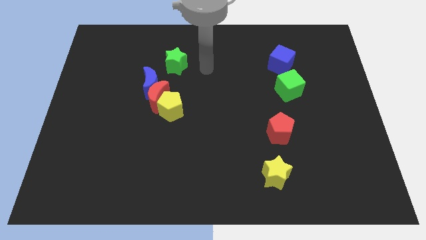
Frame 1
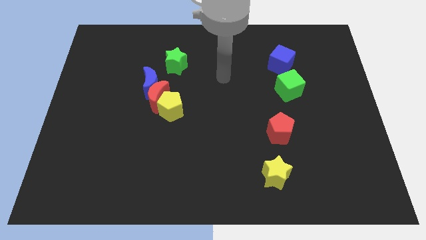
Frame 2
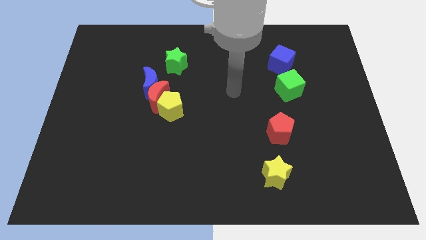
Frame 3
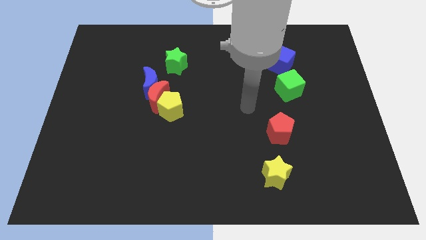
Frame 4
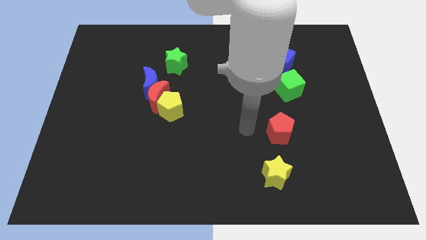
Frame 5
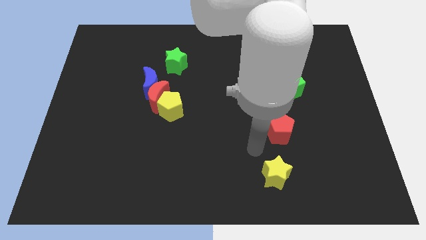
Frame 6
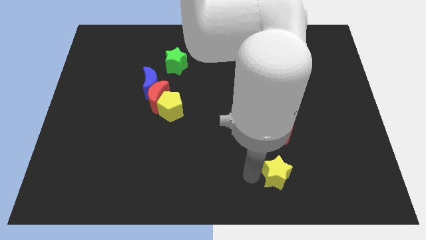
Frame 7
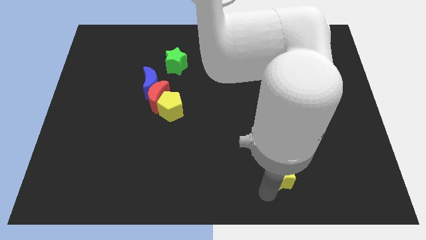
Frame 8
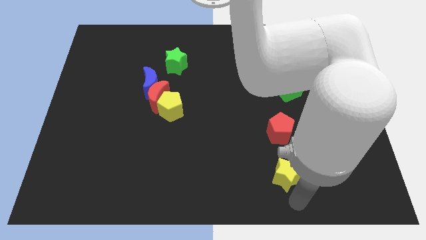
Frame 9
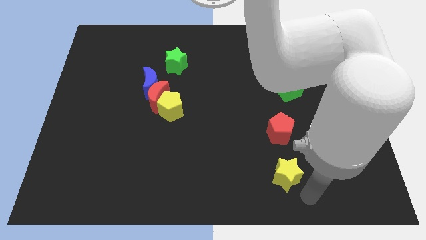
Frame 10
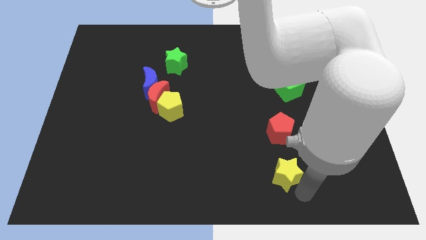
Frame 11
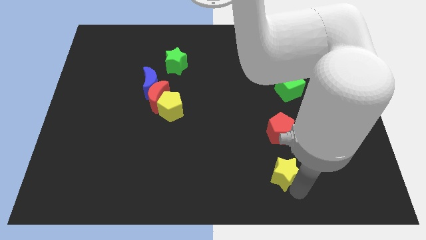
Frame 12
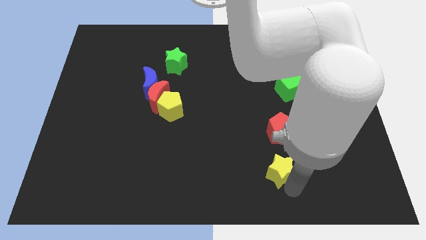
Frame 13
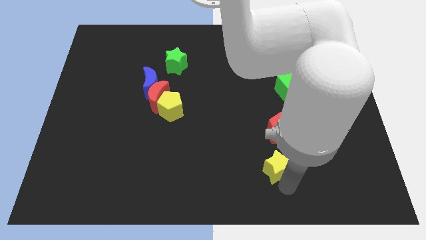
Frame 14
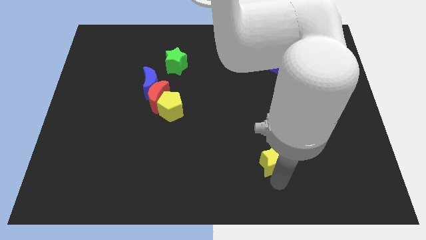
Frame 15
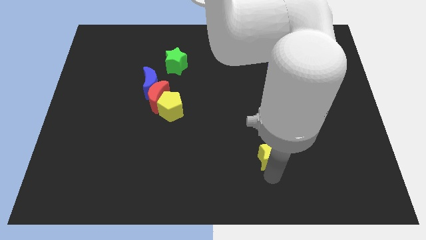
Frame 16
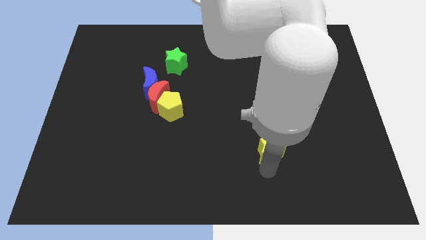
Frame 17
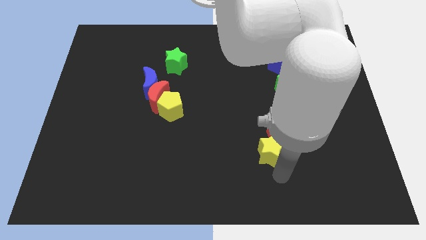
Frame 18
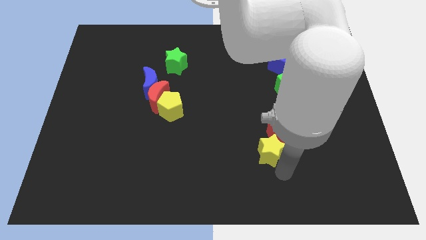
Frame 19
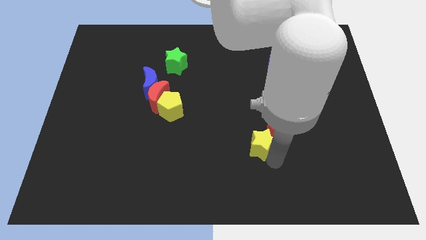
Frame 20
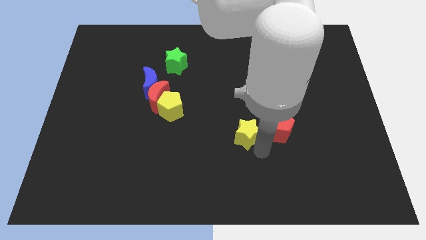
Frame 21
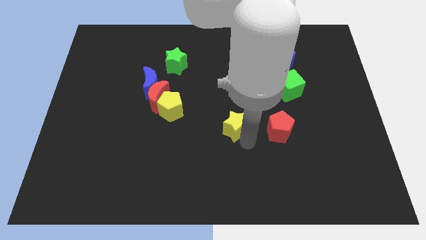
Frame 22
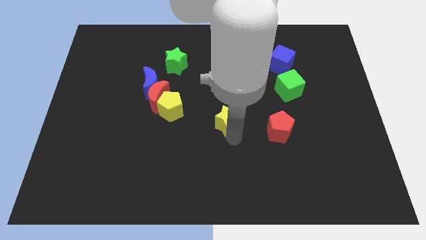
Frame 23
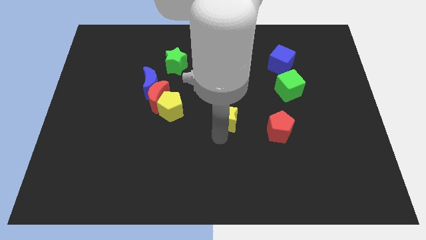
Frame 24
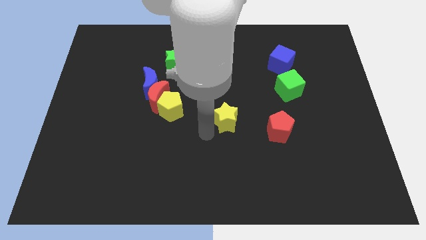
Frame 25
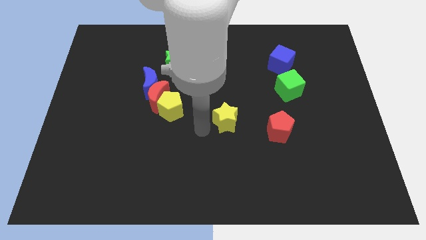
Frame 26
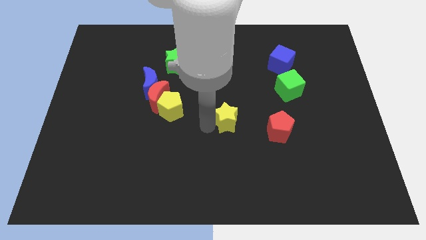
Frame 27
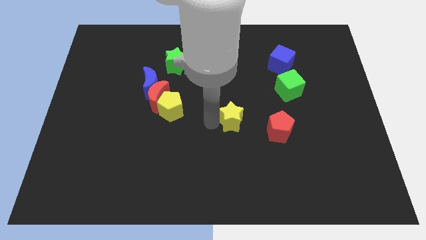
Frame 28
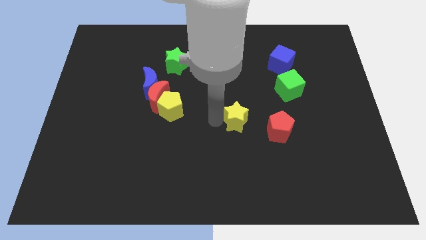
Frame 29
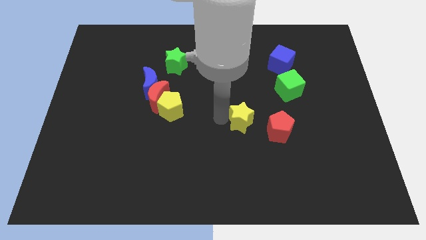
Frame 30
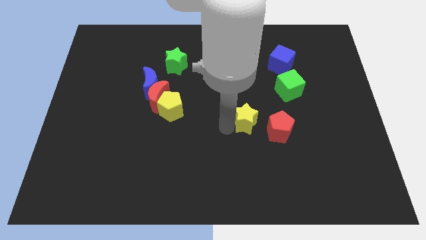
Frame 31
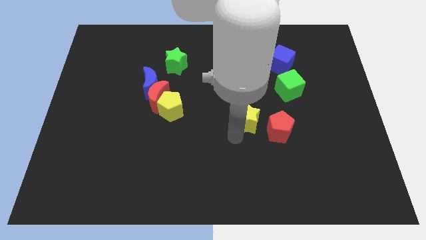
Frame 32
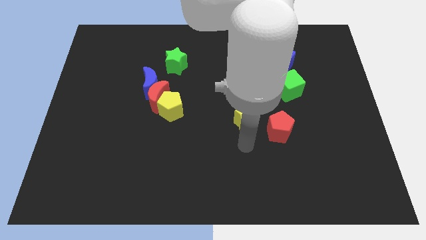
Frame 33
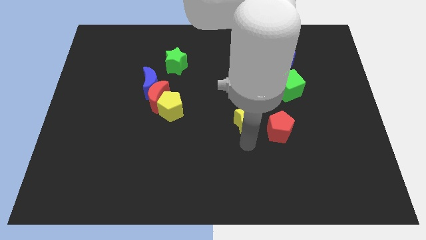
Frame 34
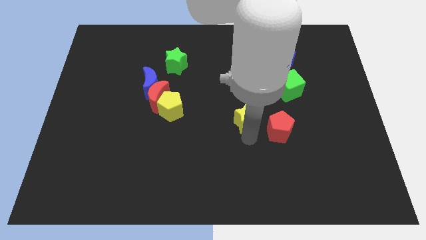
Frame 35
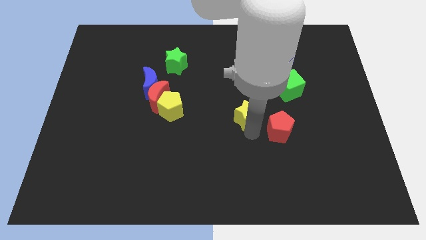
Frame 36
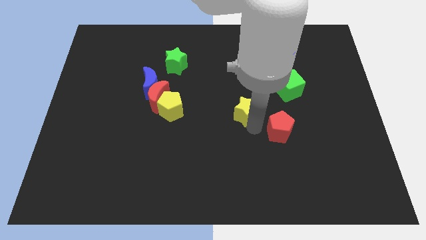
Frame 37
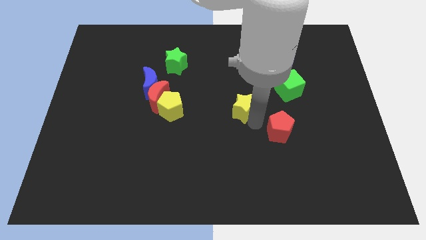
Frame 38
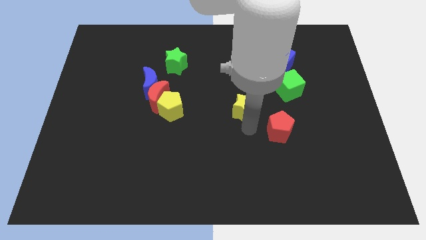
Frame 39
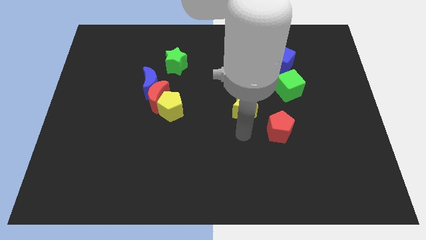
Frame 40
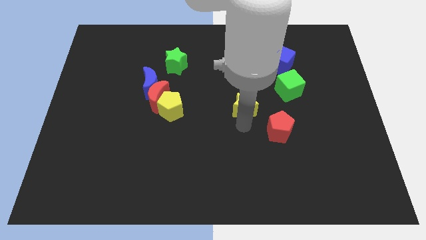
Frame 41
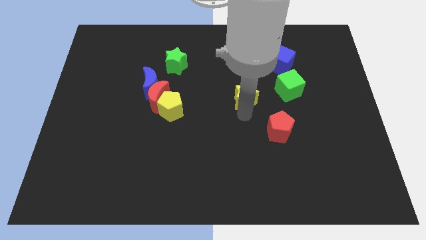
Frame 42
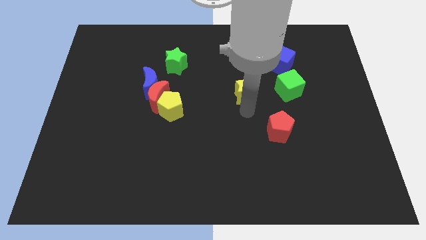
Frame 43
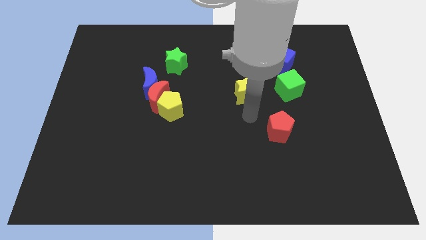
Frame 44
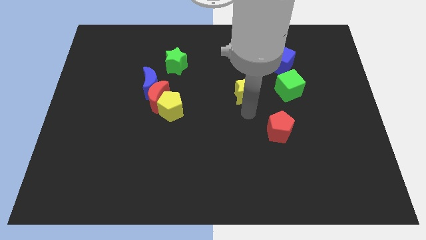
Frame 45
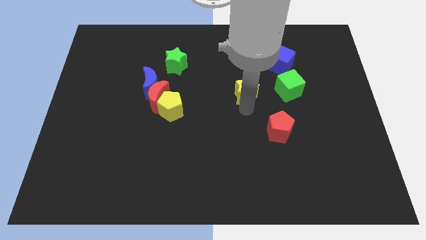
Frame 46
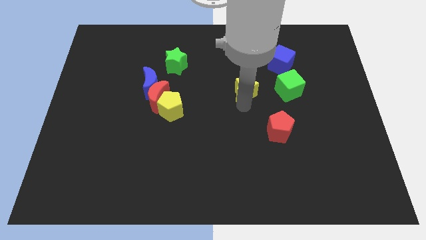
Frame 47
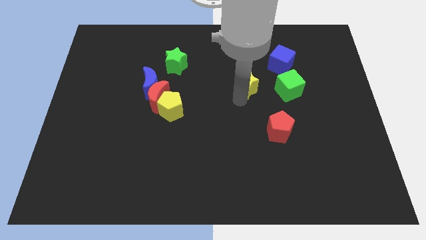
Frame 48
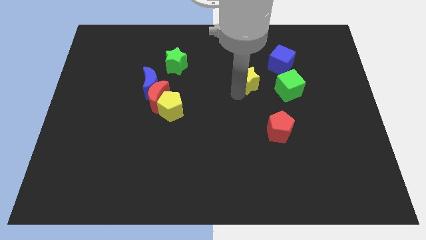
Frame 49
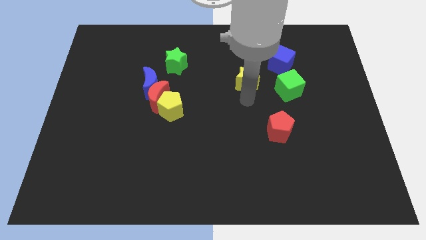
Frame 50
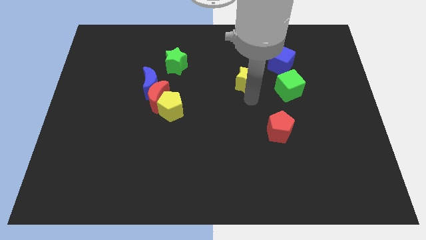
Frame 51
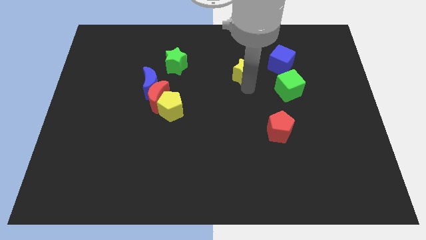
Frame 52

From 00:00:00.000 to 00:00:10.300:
move the yellow star just left of the blue cube

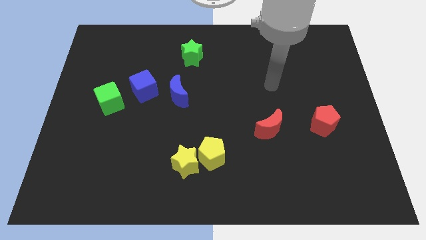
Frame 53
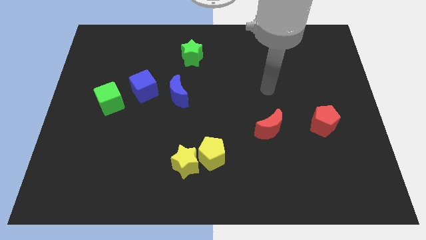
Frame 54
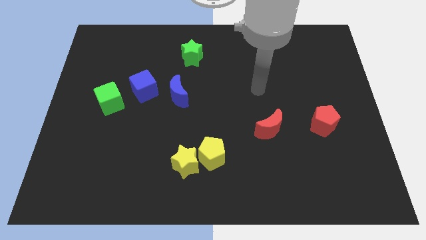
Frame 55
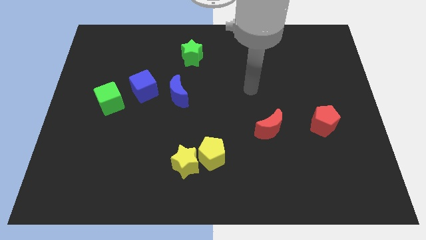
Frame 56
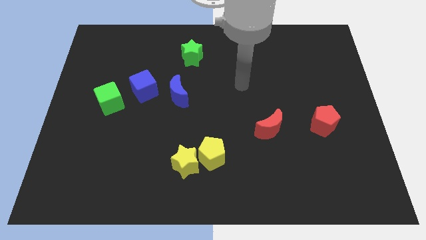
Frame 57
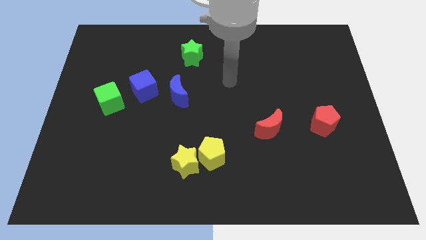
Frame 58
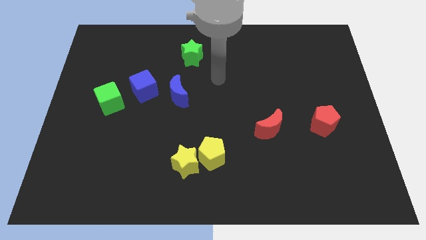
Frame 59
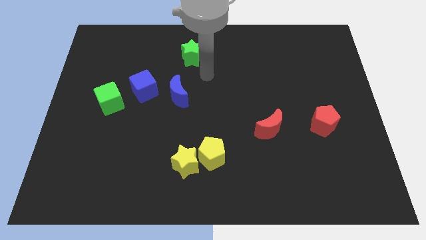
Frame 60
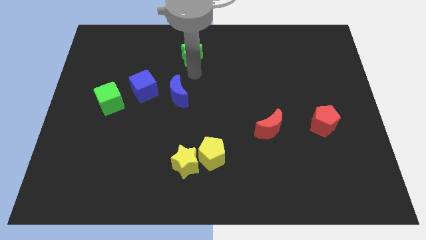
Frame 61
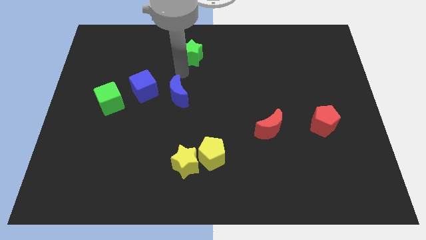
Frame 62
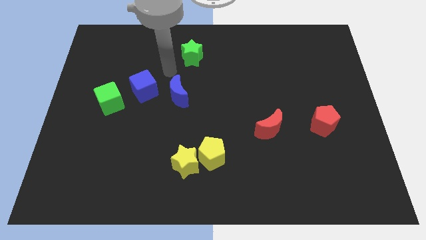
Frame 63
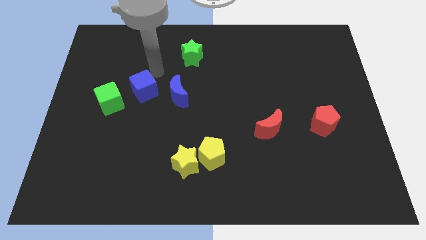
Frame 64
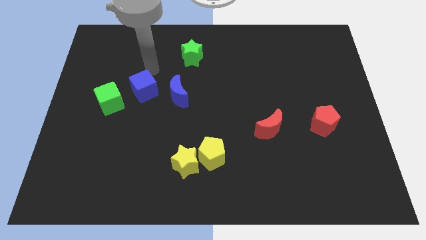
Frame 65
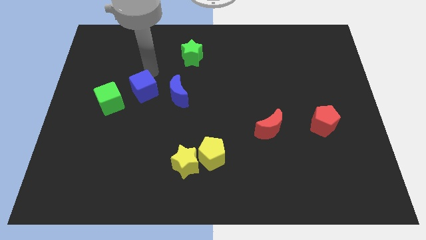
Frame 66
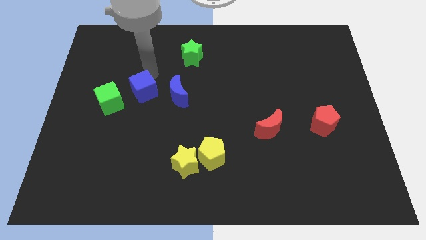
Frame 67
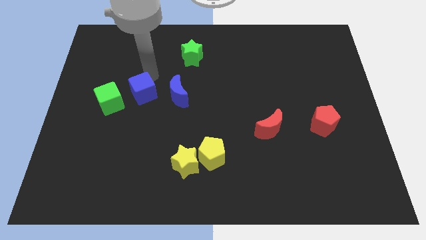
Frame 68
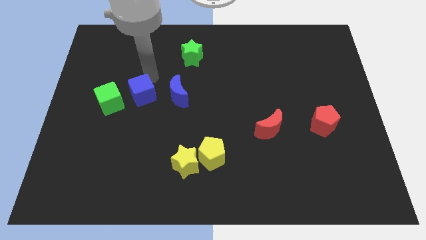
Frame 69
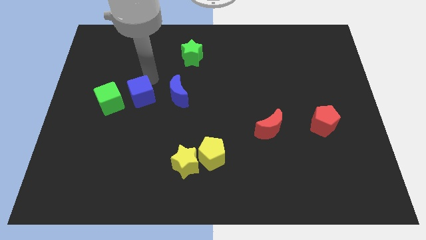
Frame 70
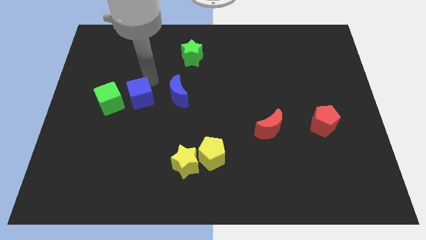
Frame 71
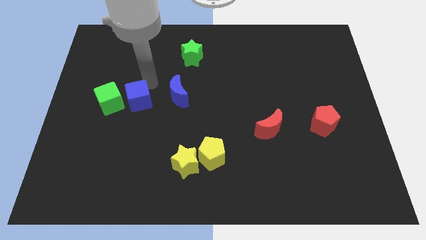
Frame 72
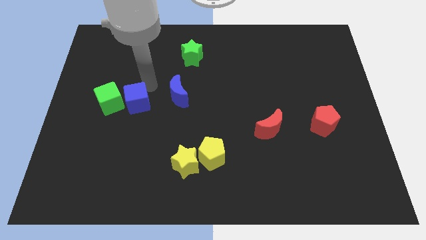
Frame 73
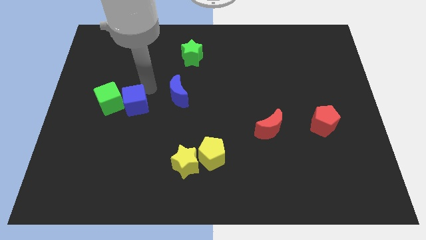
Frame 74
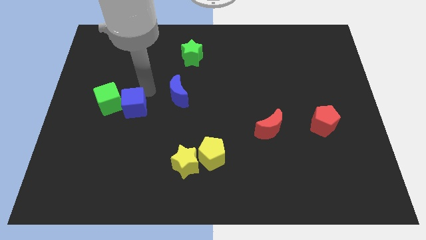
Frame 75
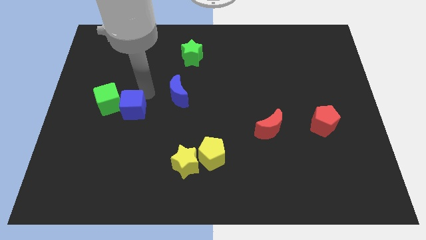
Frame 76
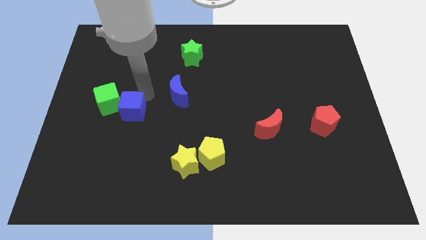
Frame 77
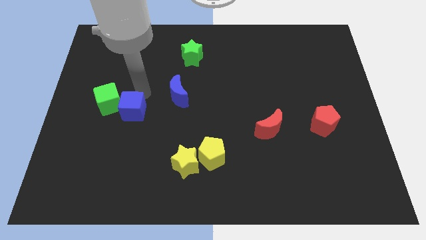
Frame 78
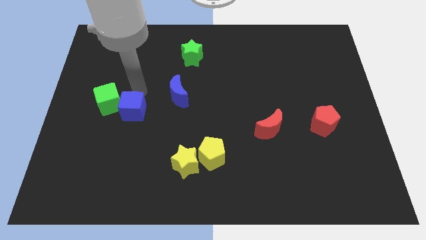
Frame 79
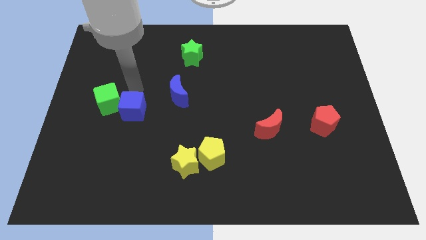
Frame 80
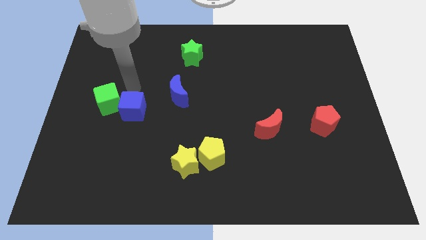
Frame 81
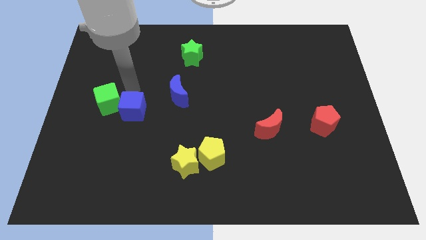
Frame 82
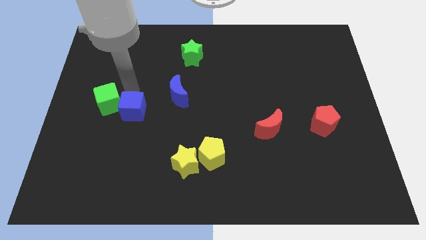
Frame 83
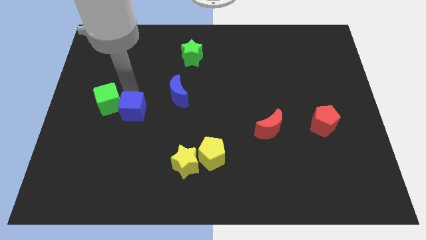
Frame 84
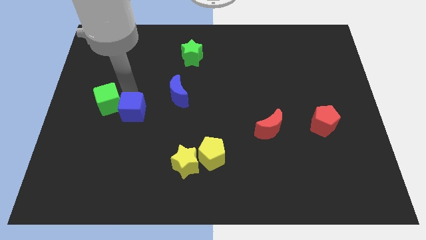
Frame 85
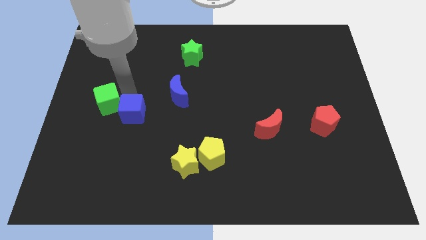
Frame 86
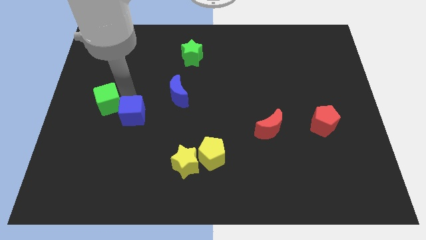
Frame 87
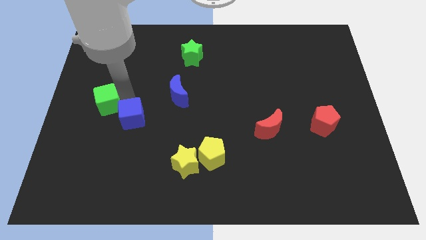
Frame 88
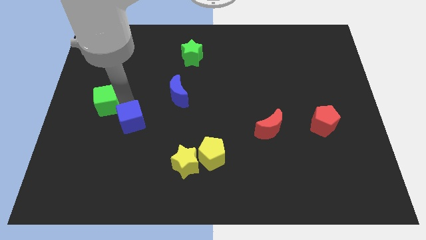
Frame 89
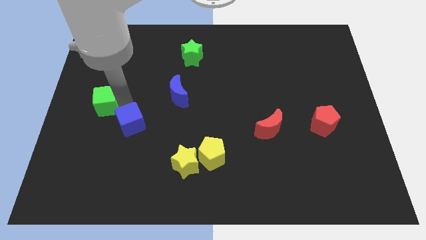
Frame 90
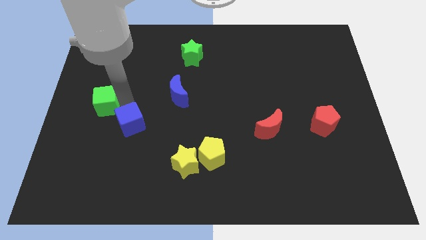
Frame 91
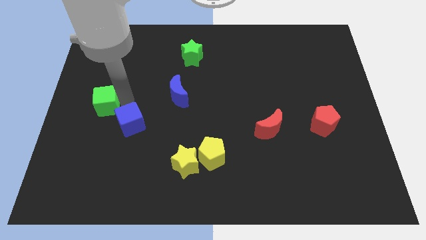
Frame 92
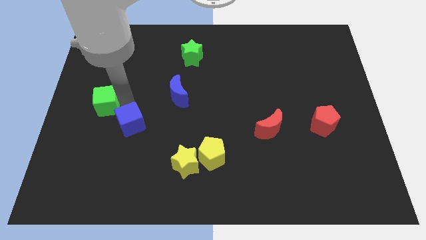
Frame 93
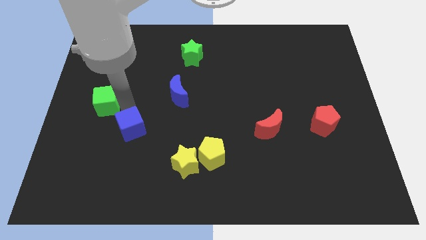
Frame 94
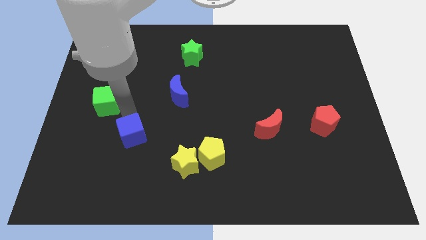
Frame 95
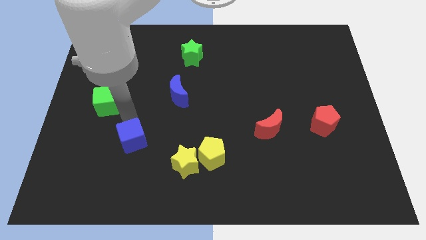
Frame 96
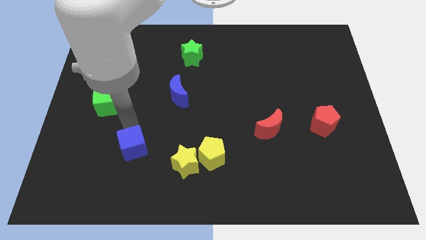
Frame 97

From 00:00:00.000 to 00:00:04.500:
push the blue cube just left of the yellow star
